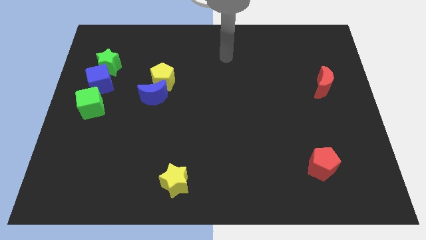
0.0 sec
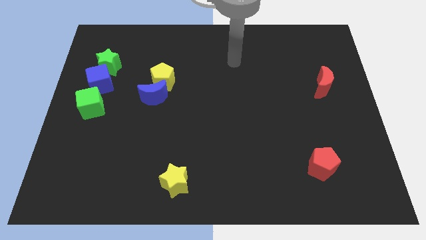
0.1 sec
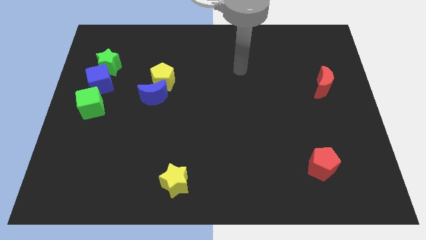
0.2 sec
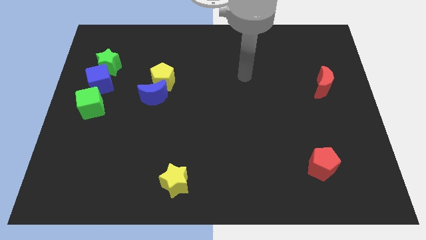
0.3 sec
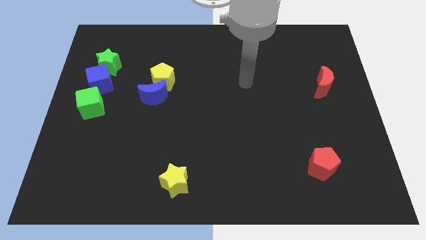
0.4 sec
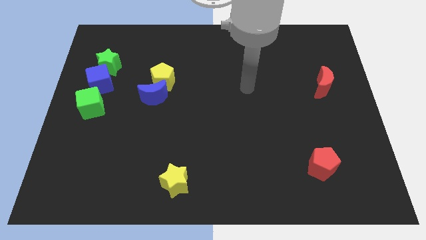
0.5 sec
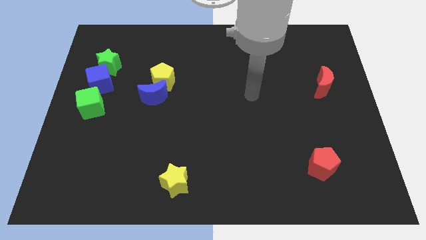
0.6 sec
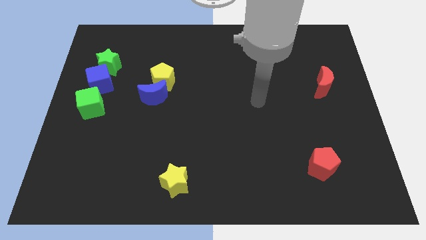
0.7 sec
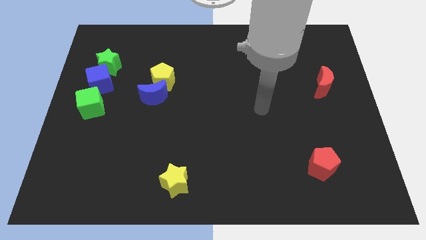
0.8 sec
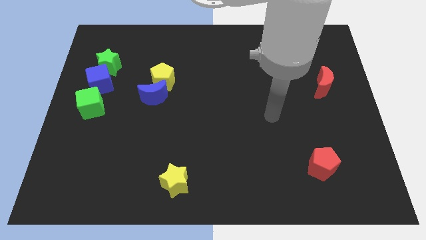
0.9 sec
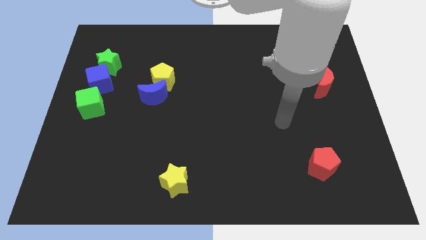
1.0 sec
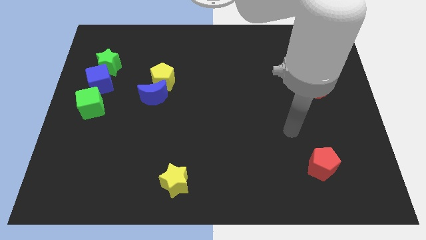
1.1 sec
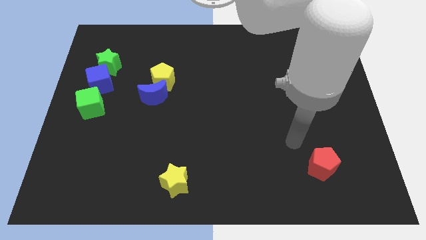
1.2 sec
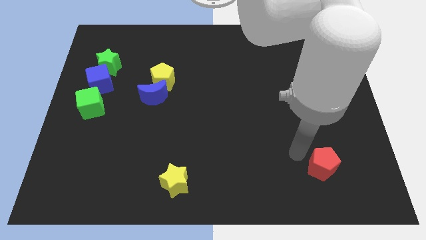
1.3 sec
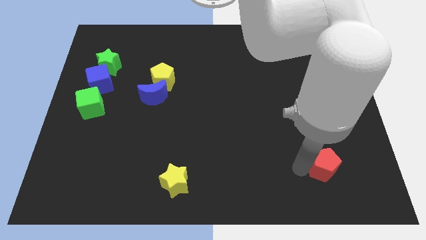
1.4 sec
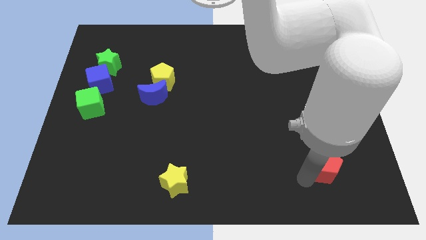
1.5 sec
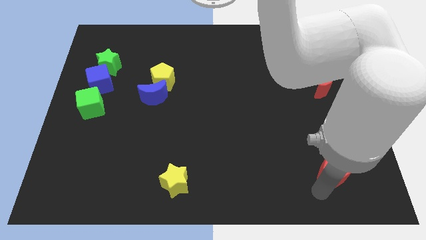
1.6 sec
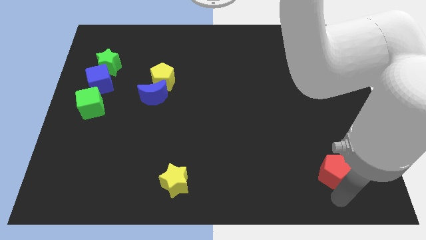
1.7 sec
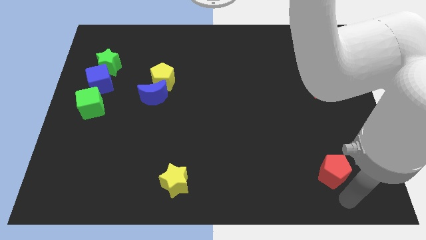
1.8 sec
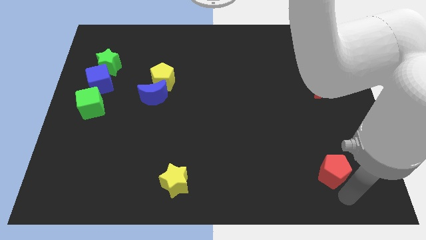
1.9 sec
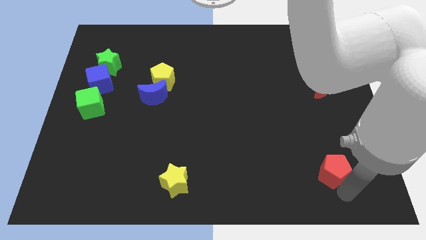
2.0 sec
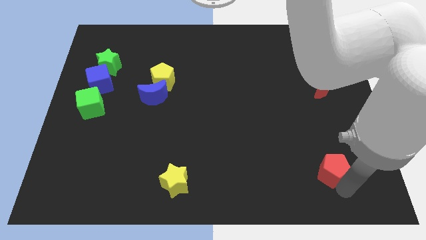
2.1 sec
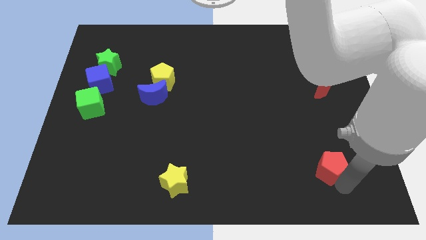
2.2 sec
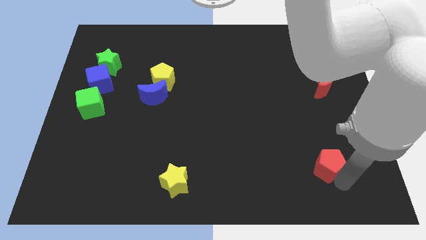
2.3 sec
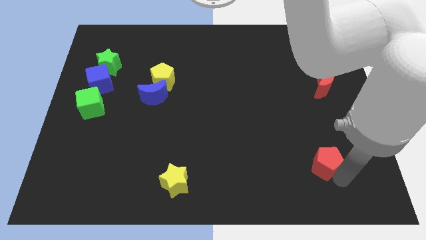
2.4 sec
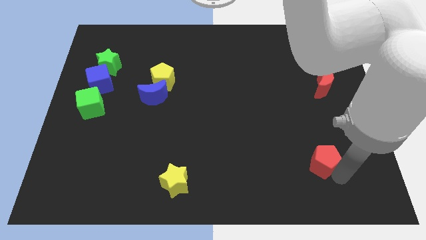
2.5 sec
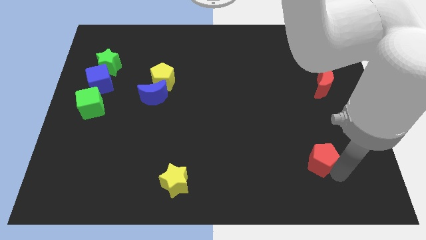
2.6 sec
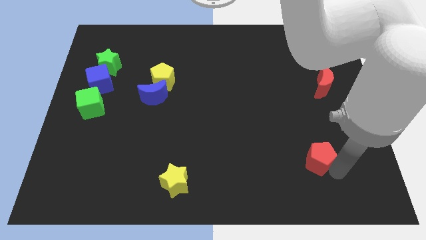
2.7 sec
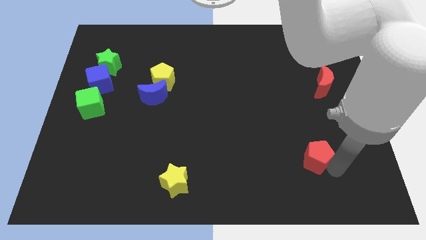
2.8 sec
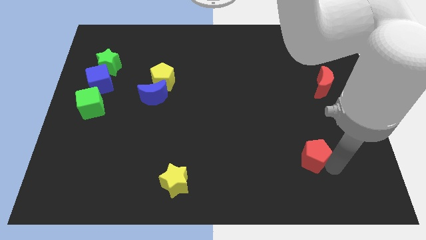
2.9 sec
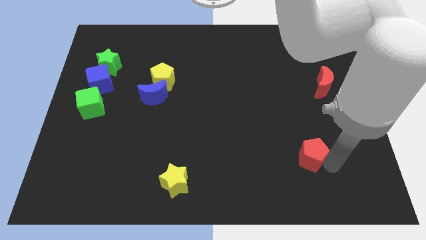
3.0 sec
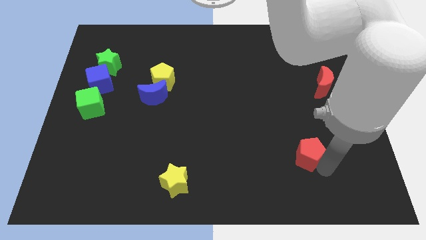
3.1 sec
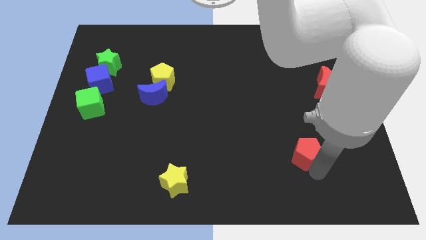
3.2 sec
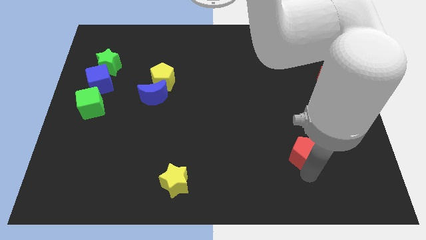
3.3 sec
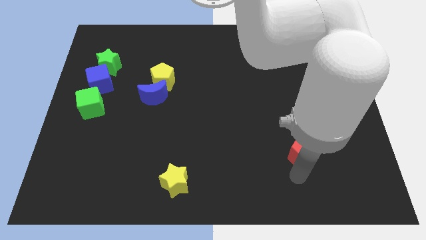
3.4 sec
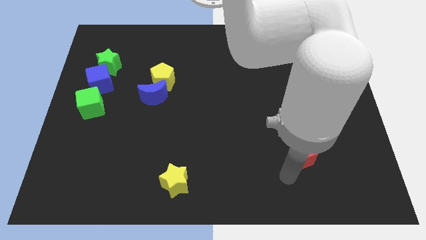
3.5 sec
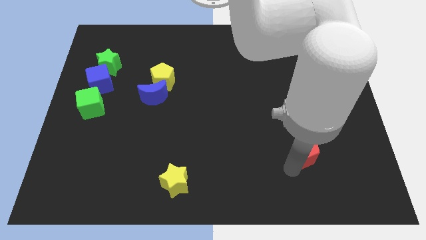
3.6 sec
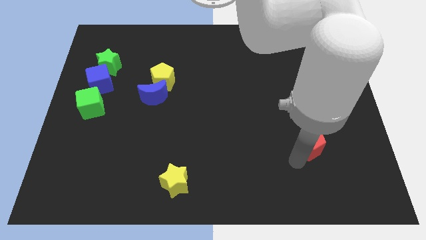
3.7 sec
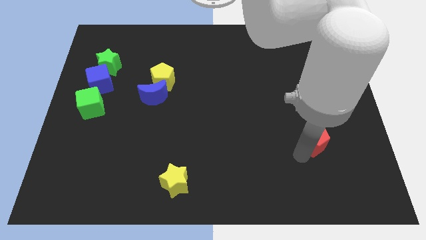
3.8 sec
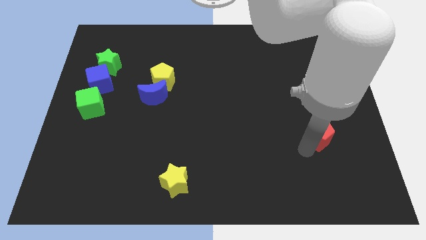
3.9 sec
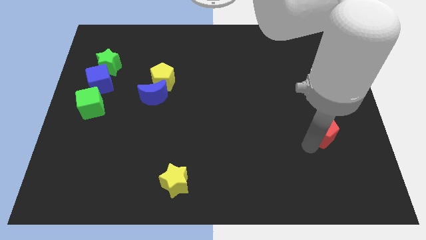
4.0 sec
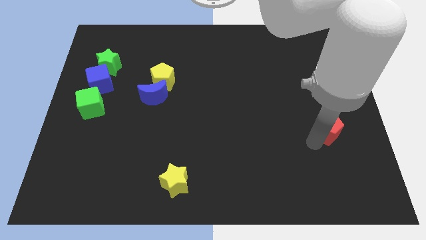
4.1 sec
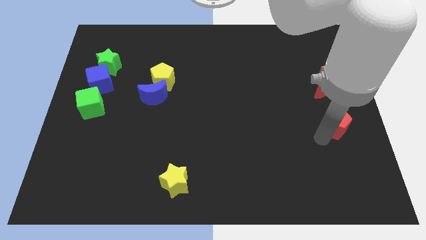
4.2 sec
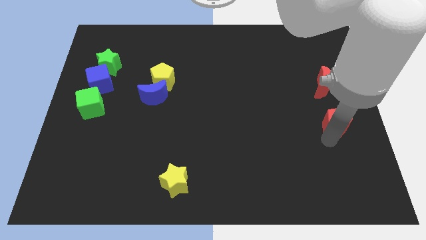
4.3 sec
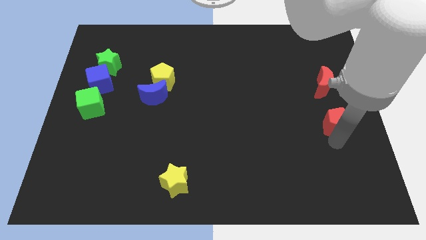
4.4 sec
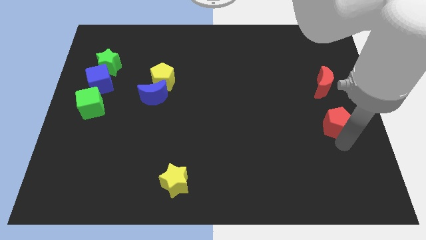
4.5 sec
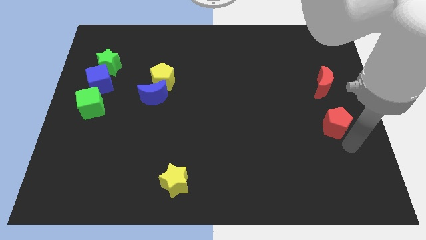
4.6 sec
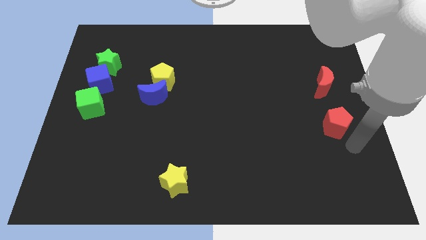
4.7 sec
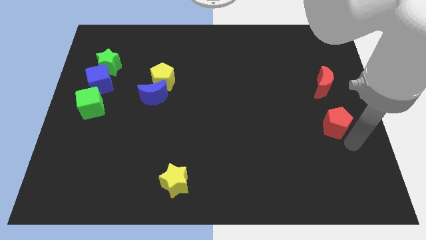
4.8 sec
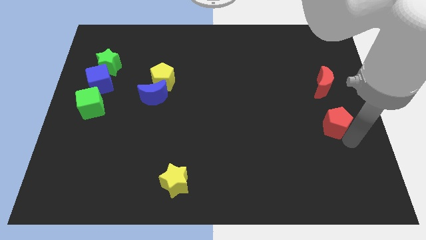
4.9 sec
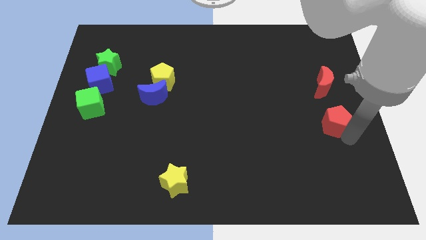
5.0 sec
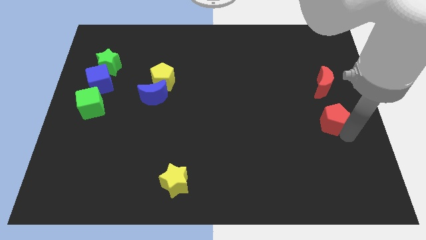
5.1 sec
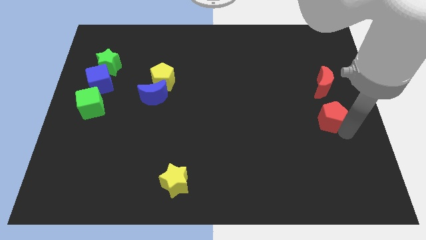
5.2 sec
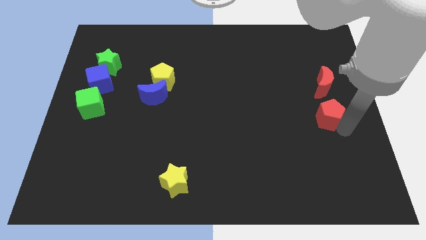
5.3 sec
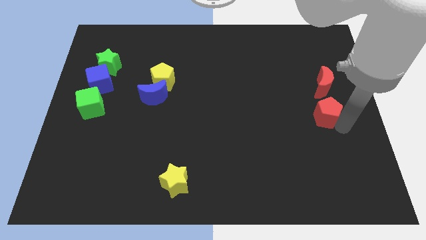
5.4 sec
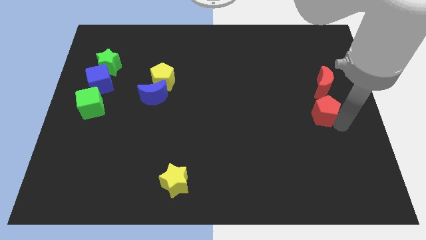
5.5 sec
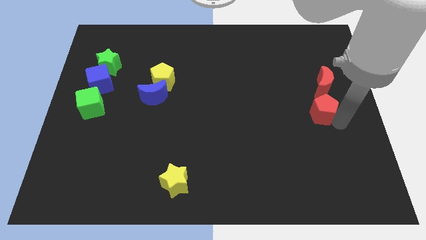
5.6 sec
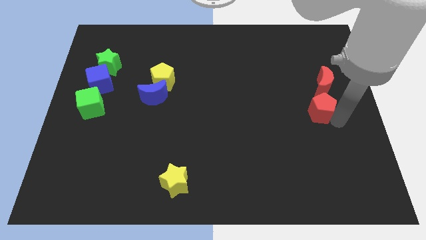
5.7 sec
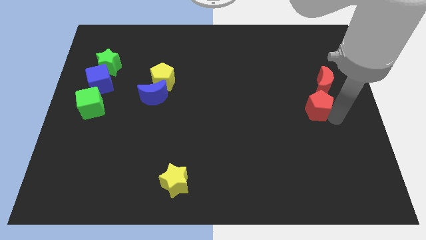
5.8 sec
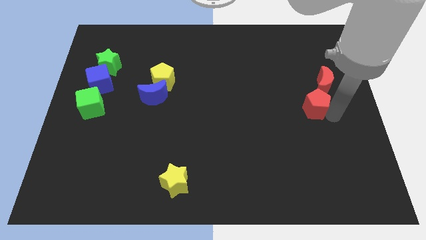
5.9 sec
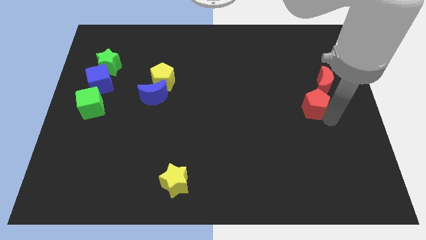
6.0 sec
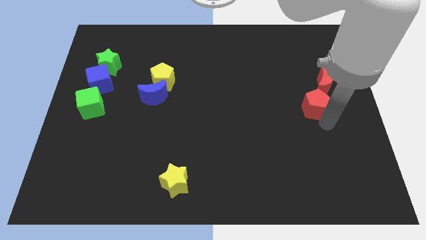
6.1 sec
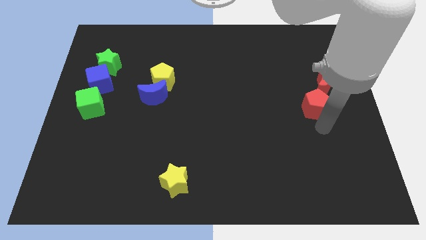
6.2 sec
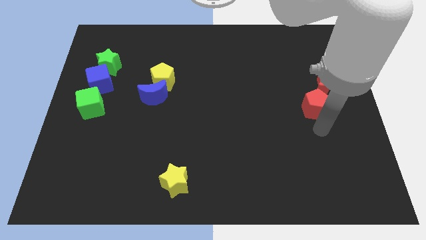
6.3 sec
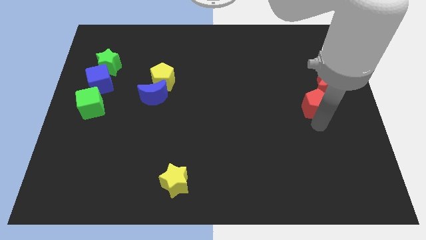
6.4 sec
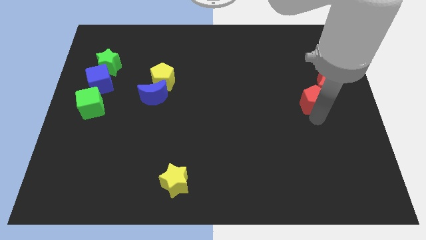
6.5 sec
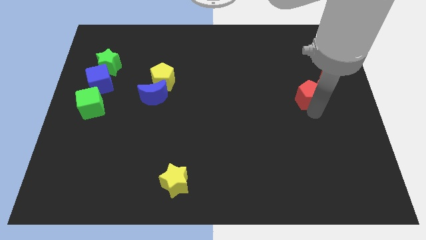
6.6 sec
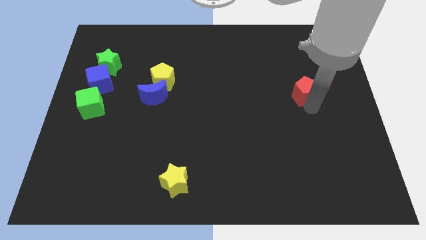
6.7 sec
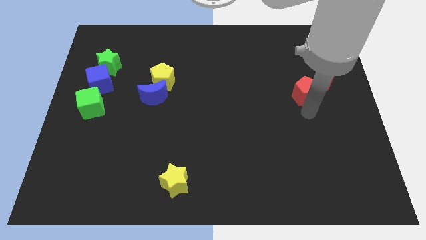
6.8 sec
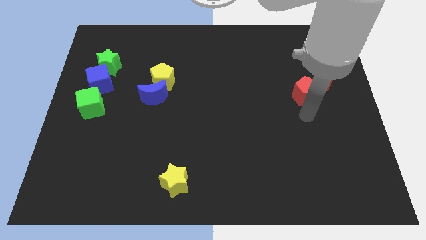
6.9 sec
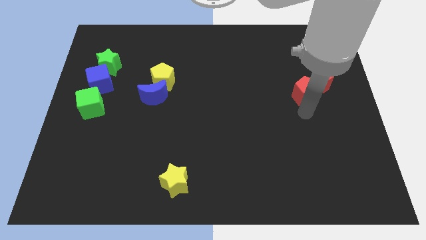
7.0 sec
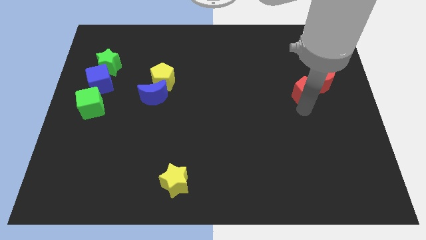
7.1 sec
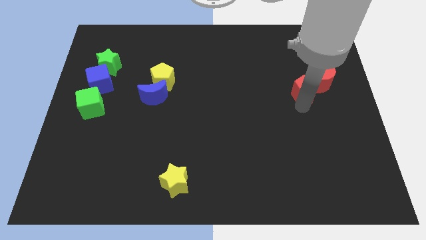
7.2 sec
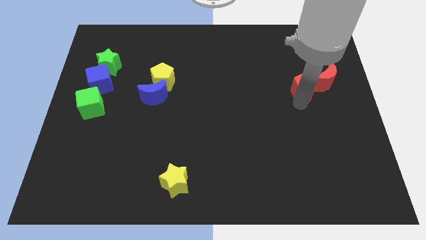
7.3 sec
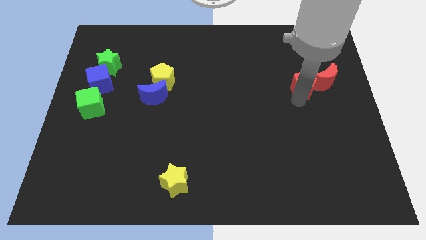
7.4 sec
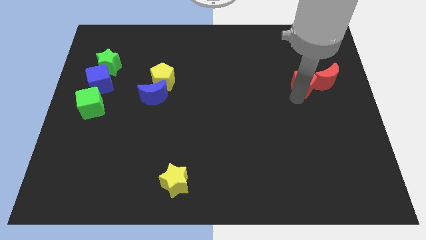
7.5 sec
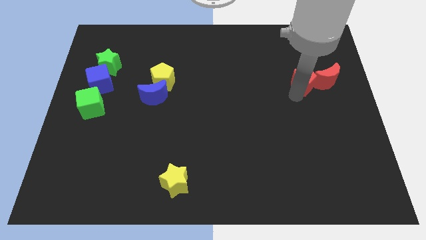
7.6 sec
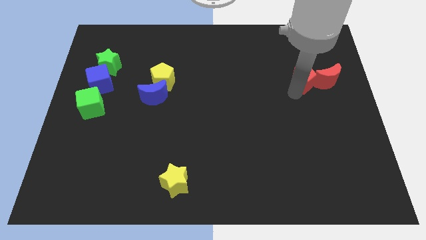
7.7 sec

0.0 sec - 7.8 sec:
push the red pentagon to the top left of the red moon

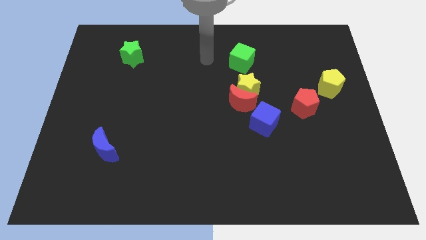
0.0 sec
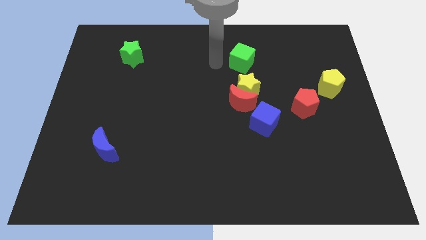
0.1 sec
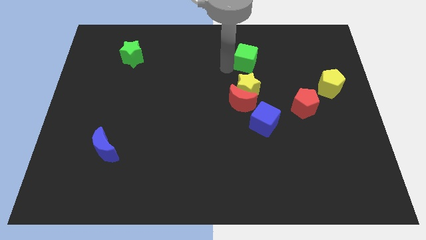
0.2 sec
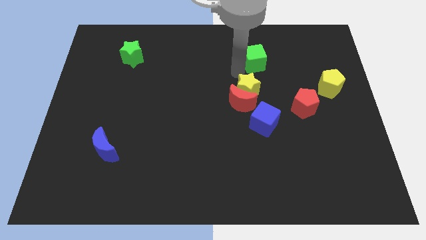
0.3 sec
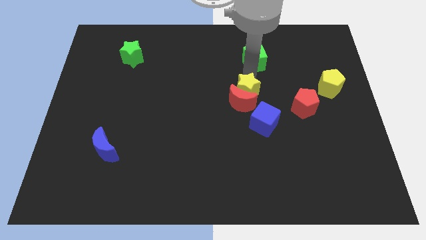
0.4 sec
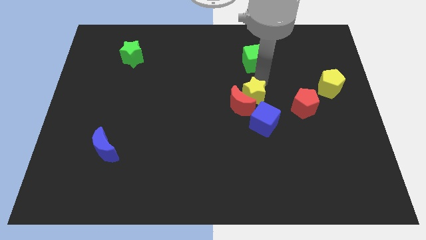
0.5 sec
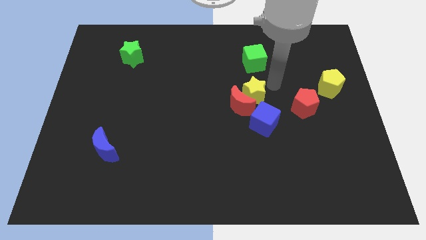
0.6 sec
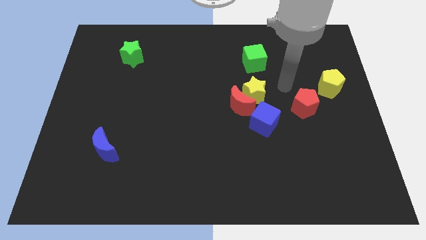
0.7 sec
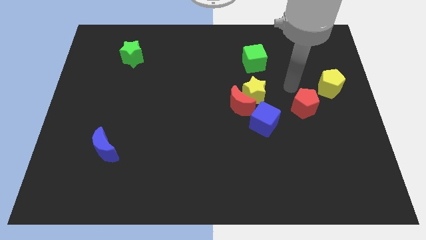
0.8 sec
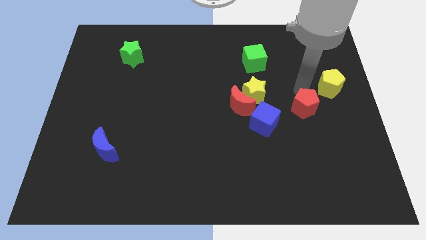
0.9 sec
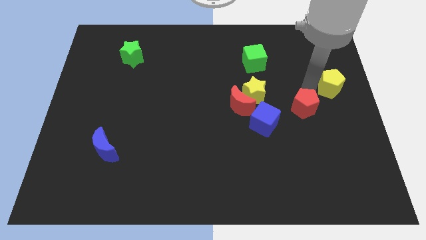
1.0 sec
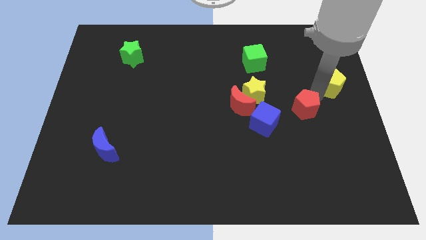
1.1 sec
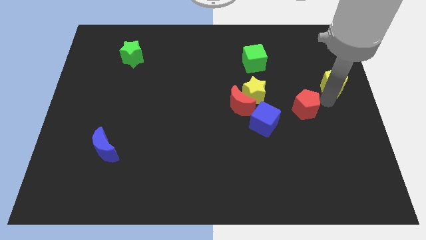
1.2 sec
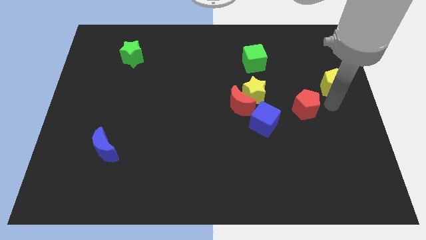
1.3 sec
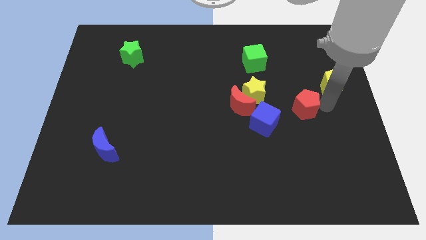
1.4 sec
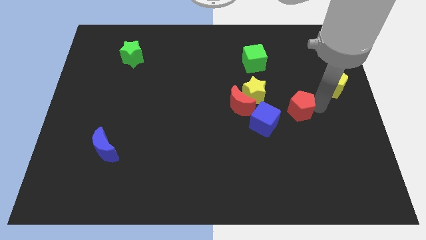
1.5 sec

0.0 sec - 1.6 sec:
move the red pentagon to the bottom right side of the yellow star
